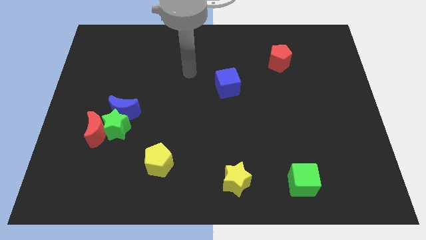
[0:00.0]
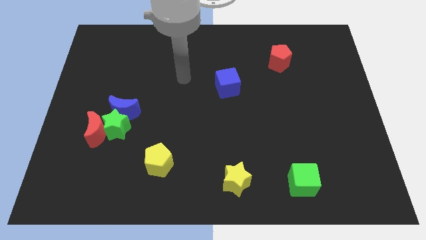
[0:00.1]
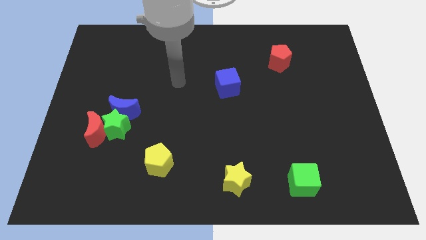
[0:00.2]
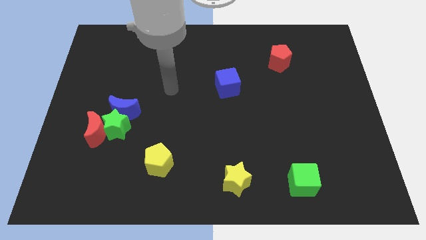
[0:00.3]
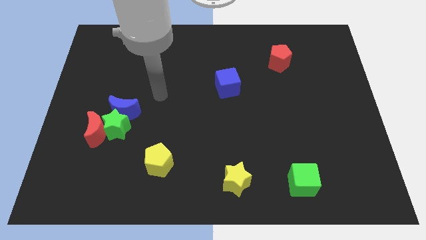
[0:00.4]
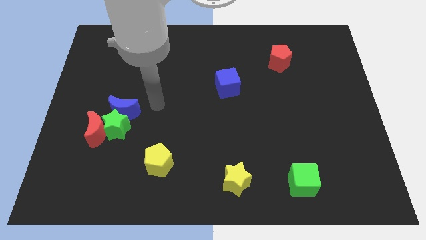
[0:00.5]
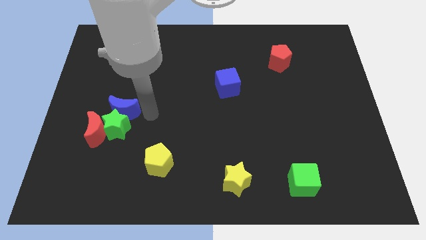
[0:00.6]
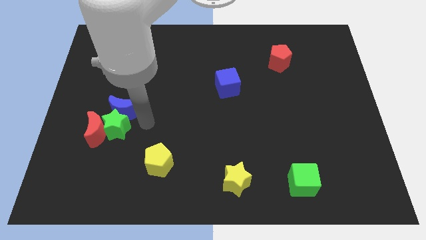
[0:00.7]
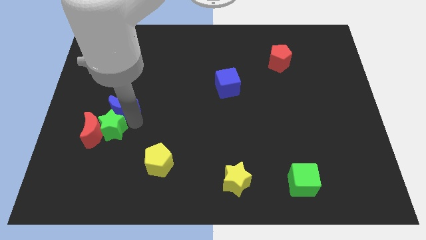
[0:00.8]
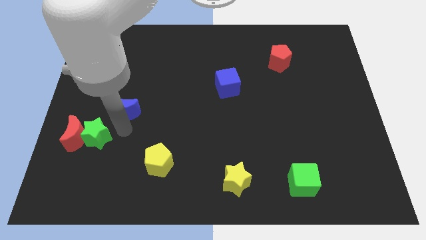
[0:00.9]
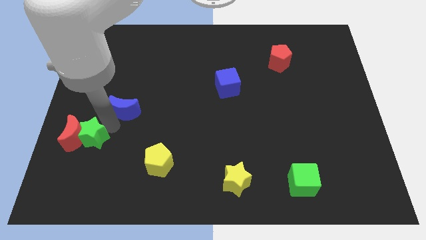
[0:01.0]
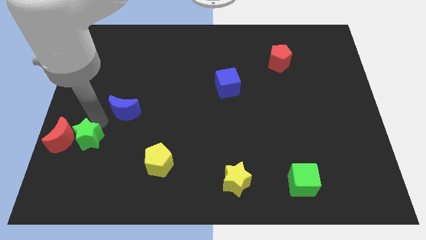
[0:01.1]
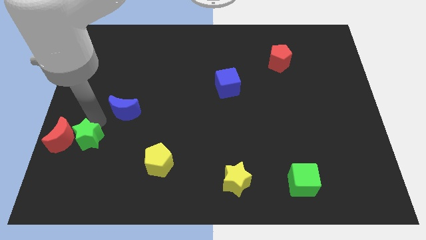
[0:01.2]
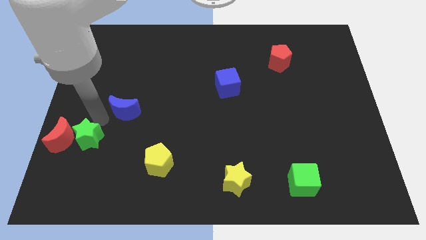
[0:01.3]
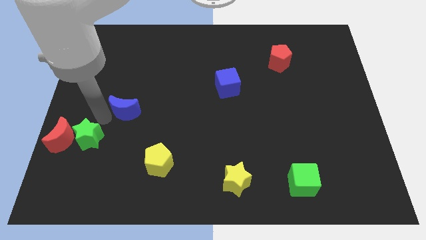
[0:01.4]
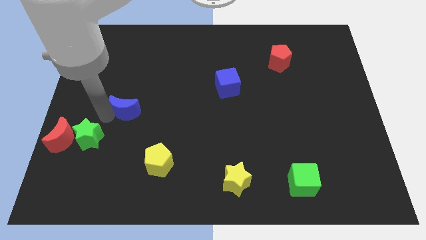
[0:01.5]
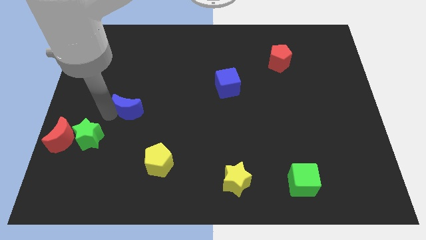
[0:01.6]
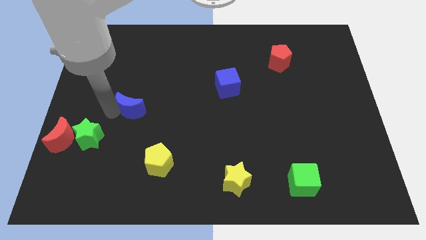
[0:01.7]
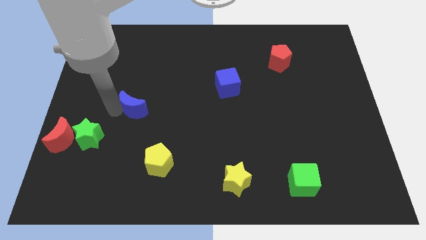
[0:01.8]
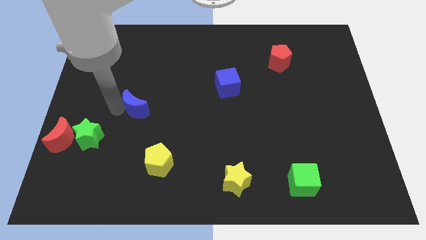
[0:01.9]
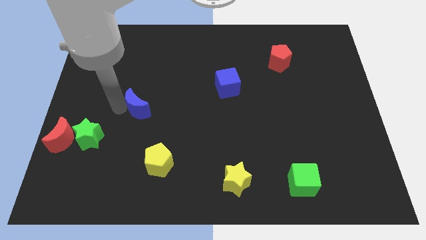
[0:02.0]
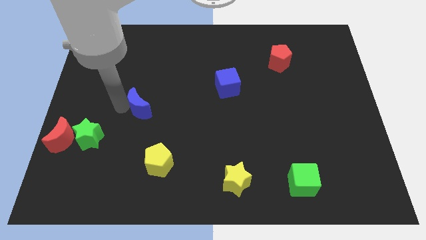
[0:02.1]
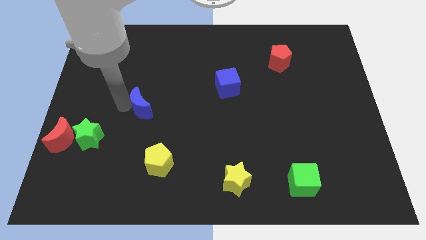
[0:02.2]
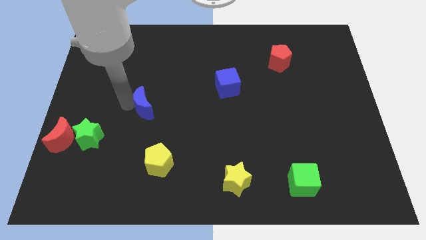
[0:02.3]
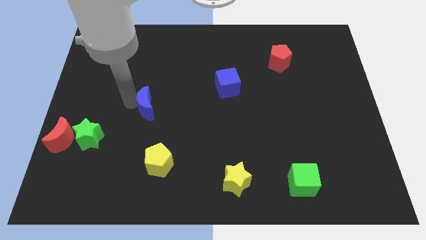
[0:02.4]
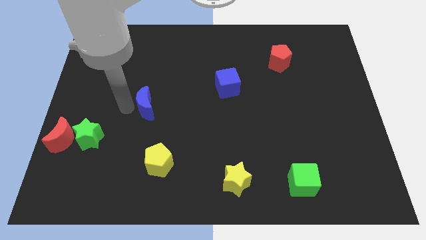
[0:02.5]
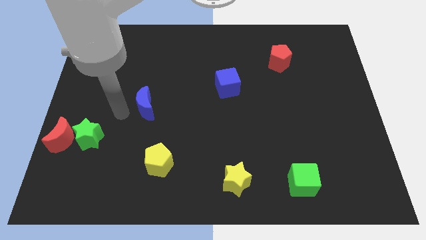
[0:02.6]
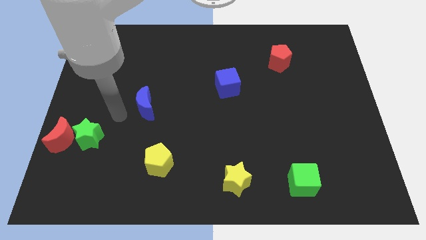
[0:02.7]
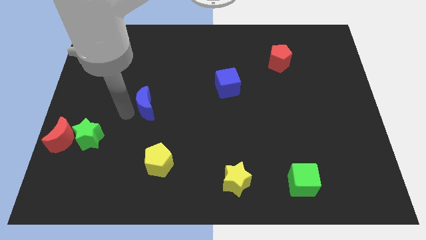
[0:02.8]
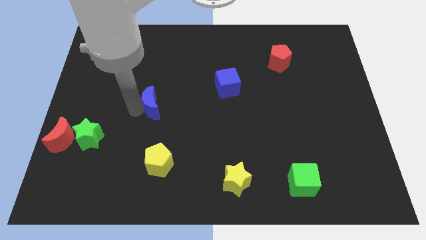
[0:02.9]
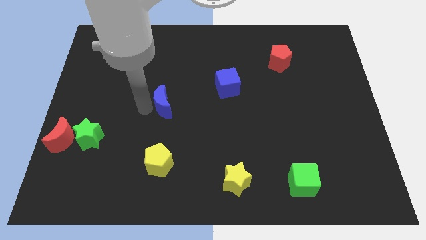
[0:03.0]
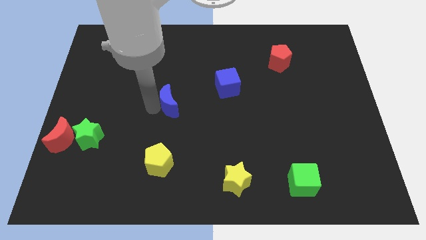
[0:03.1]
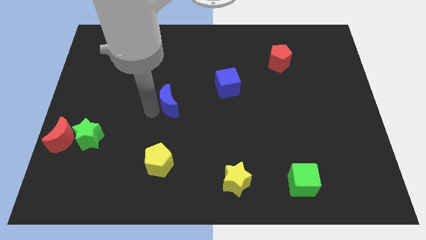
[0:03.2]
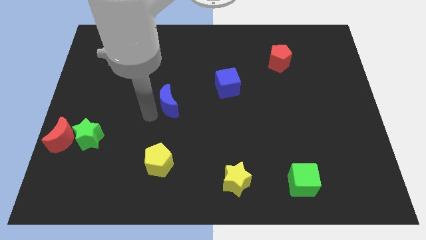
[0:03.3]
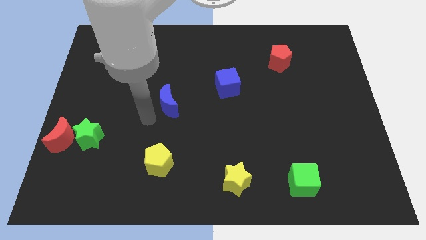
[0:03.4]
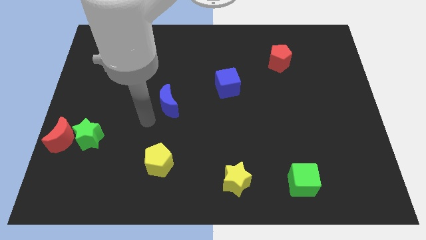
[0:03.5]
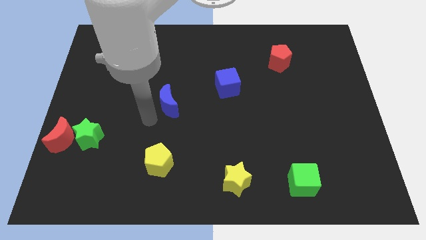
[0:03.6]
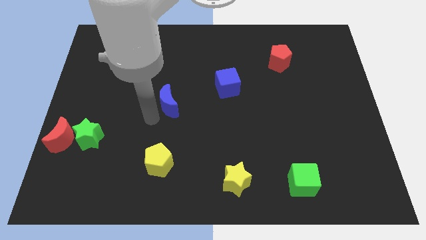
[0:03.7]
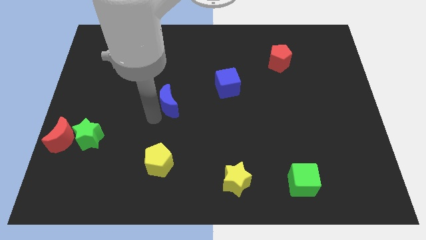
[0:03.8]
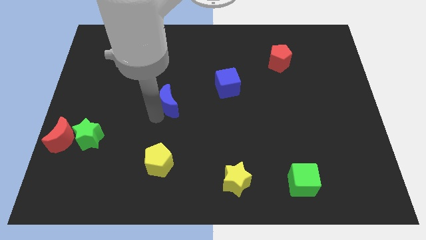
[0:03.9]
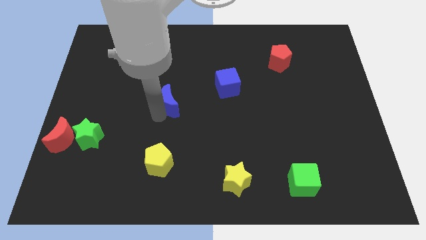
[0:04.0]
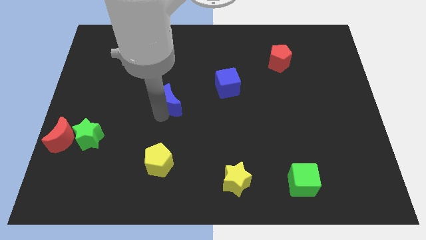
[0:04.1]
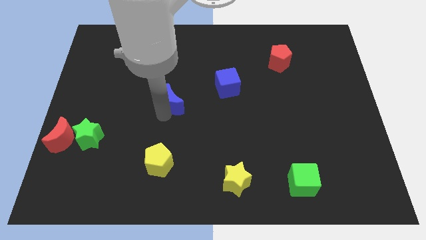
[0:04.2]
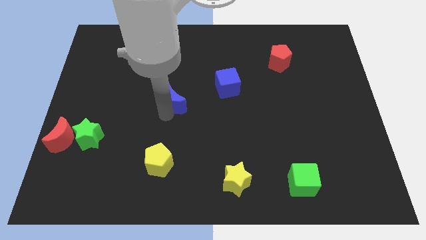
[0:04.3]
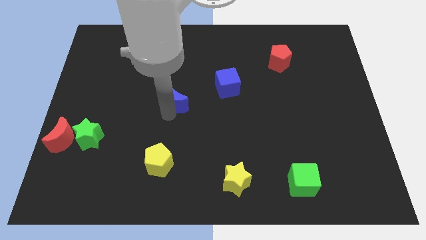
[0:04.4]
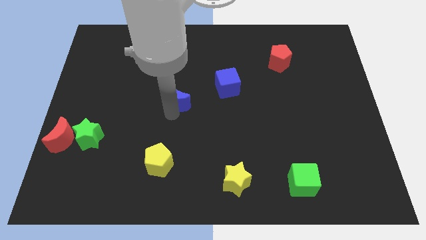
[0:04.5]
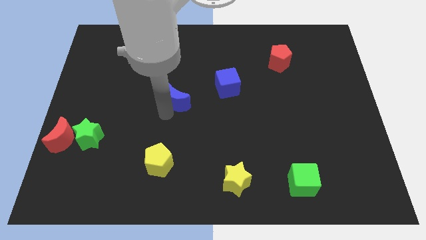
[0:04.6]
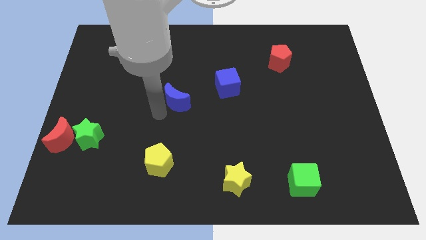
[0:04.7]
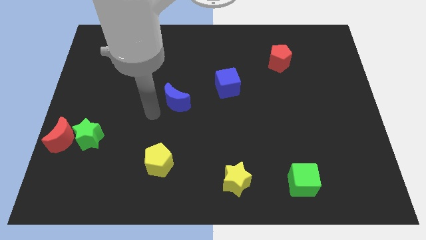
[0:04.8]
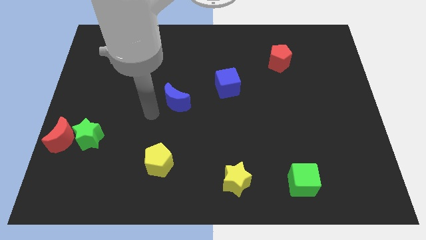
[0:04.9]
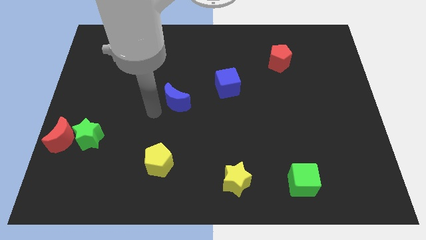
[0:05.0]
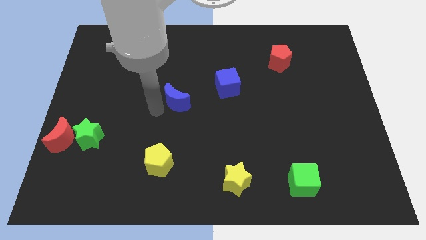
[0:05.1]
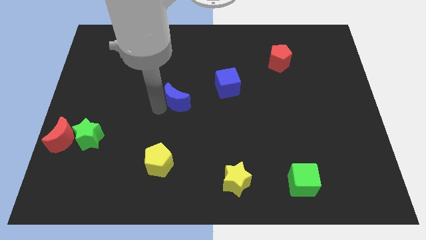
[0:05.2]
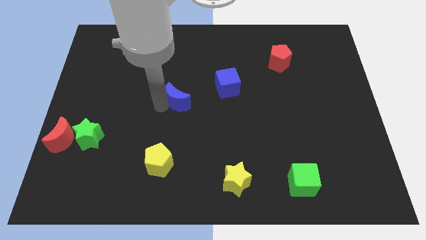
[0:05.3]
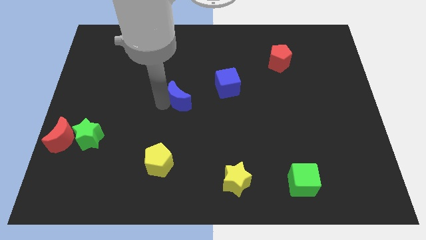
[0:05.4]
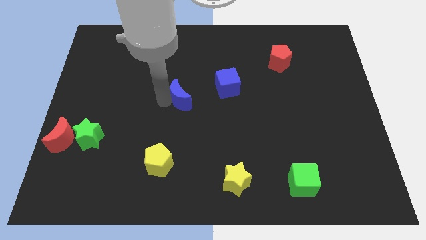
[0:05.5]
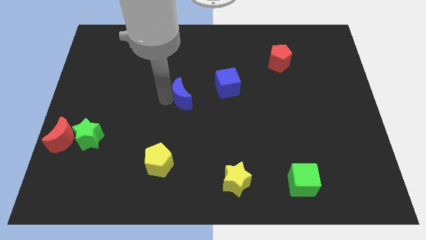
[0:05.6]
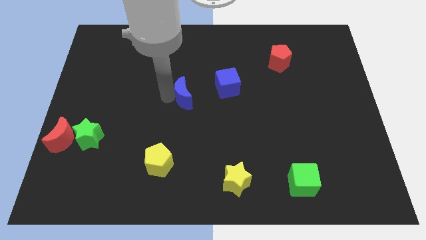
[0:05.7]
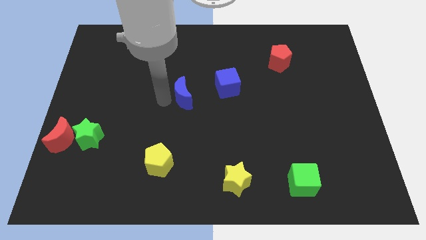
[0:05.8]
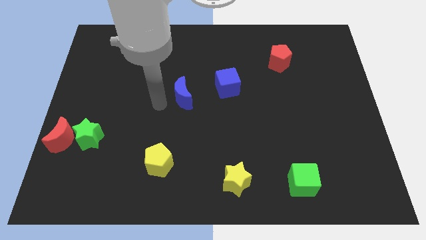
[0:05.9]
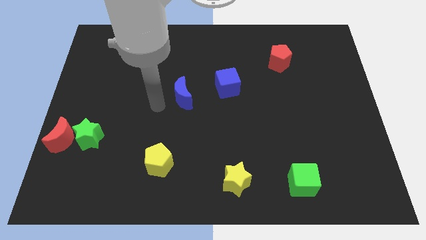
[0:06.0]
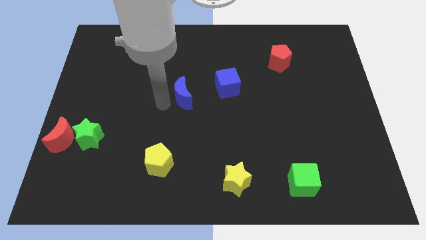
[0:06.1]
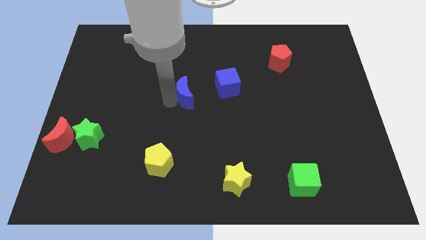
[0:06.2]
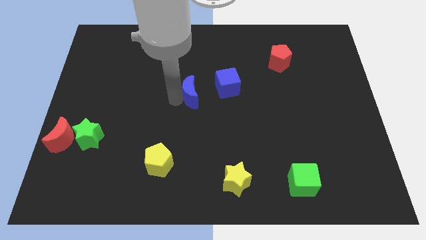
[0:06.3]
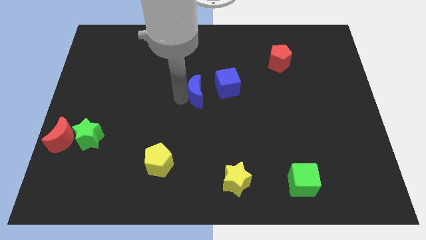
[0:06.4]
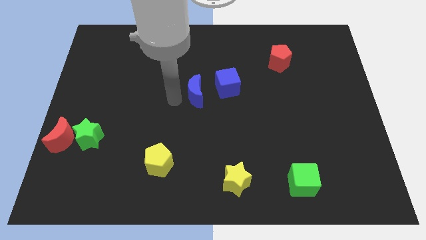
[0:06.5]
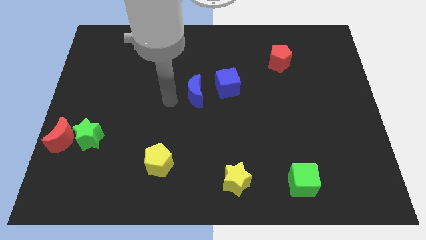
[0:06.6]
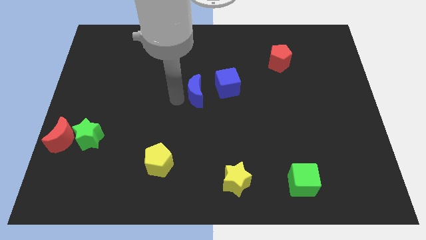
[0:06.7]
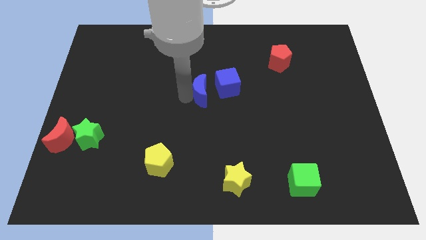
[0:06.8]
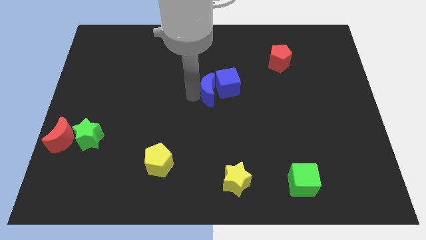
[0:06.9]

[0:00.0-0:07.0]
move the blue moon next to the blue cube
